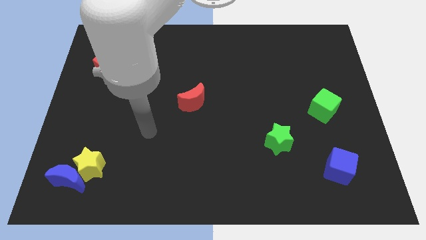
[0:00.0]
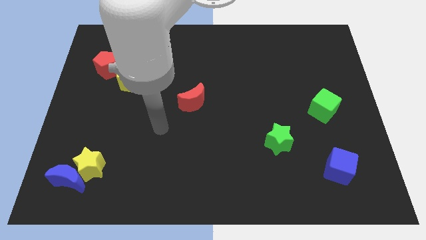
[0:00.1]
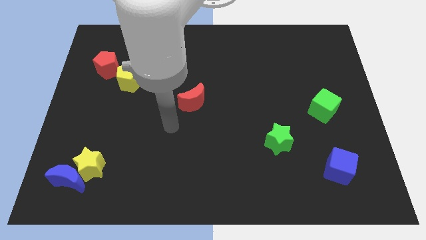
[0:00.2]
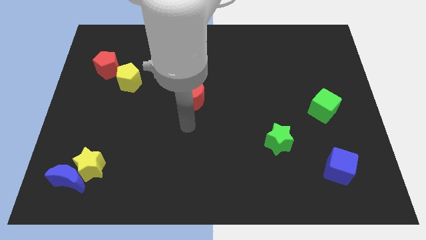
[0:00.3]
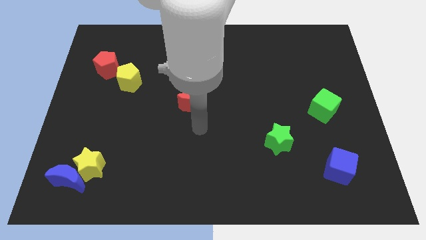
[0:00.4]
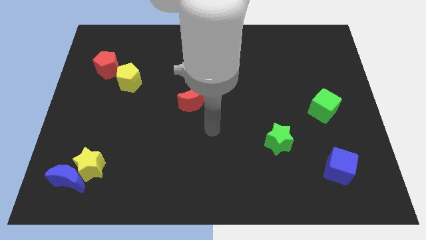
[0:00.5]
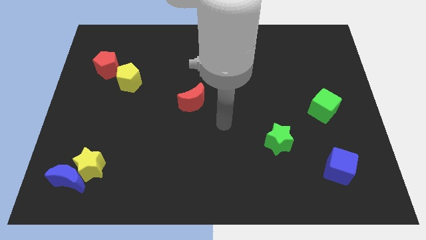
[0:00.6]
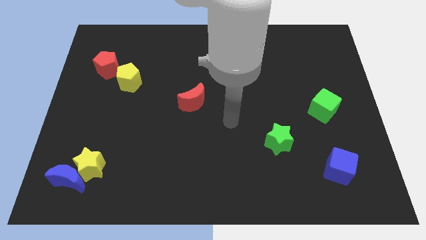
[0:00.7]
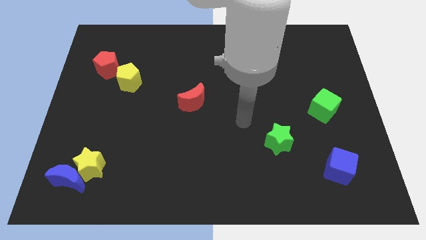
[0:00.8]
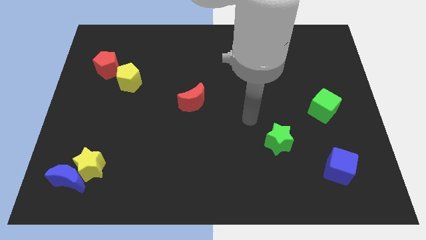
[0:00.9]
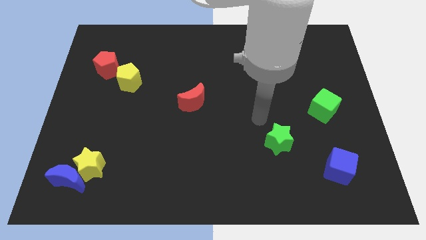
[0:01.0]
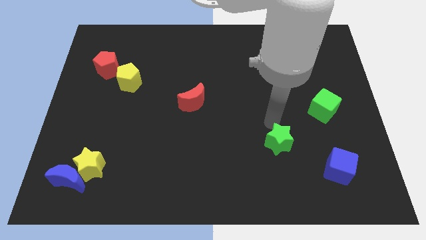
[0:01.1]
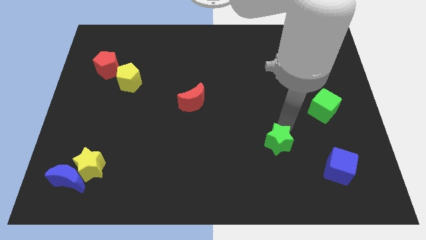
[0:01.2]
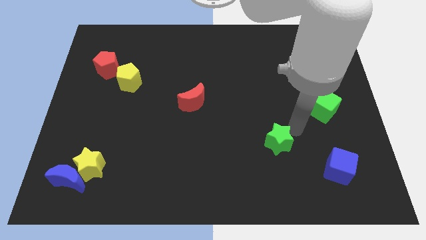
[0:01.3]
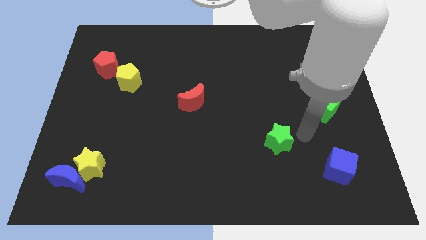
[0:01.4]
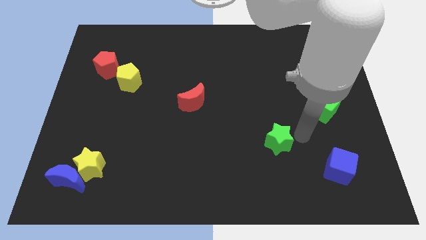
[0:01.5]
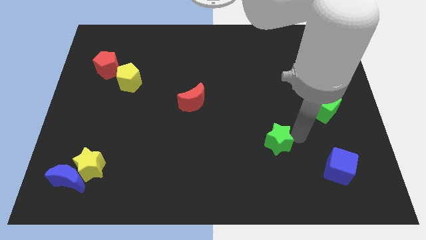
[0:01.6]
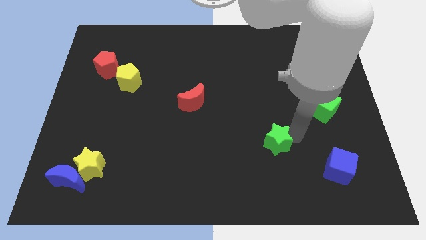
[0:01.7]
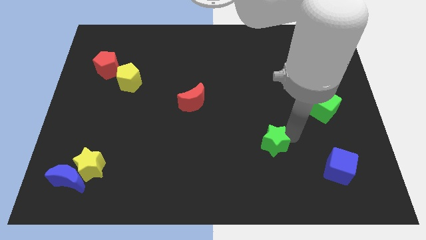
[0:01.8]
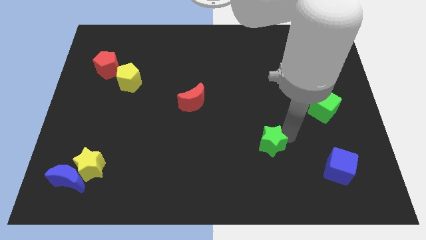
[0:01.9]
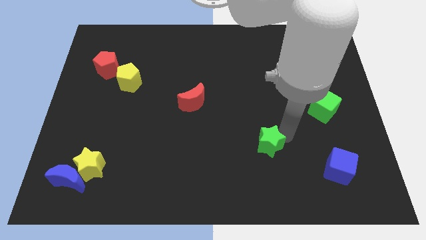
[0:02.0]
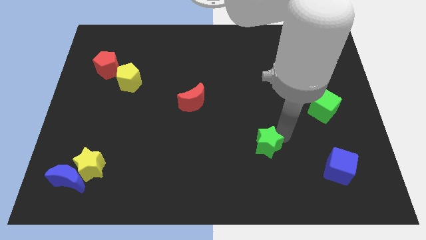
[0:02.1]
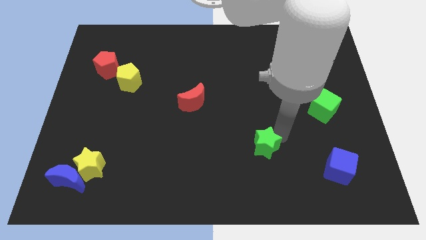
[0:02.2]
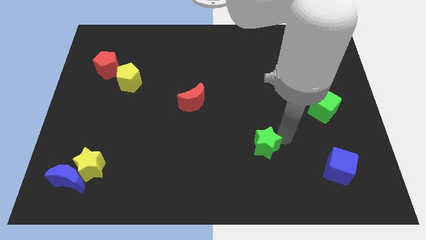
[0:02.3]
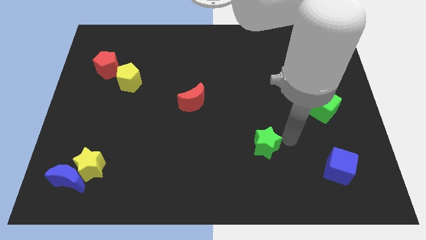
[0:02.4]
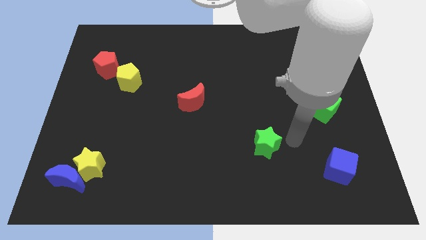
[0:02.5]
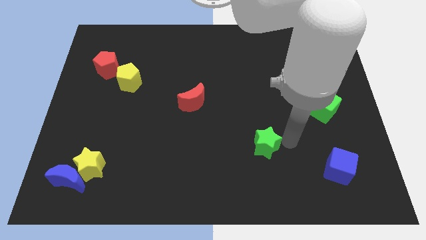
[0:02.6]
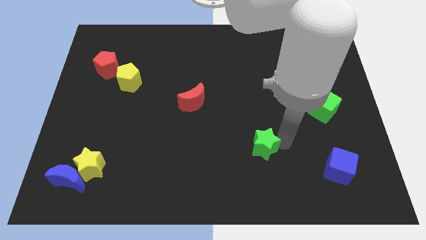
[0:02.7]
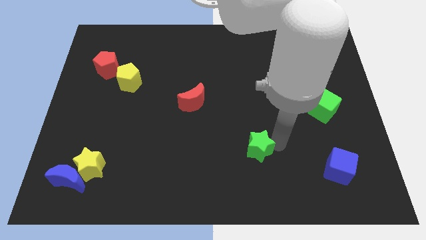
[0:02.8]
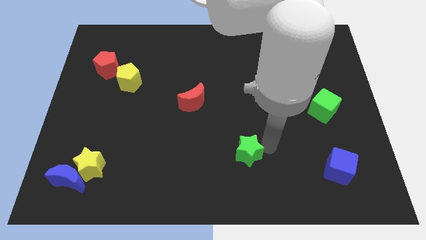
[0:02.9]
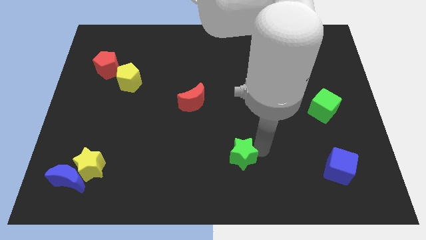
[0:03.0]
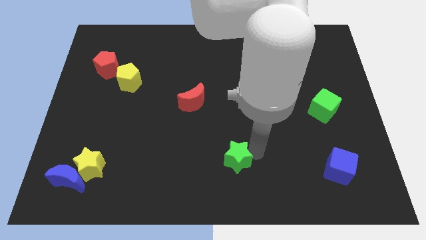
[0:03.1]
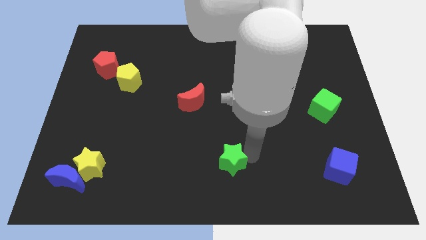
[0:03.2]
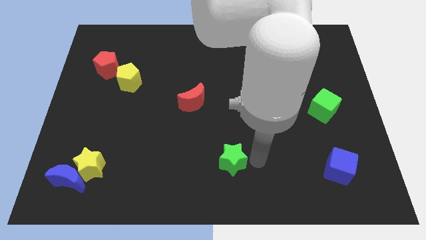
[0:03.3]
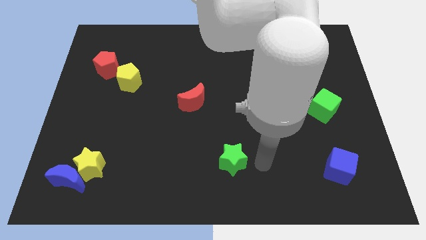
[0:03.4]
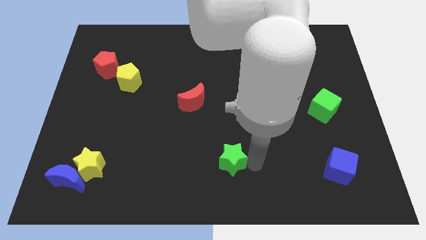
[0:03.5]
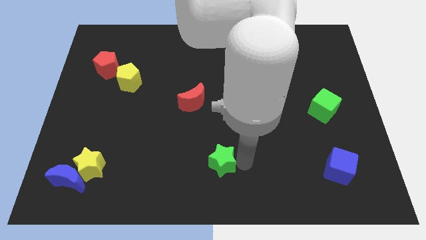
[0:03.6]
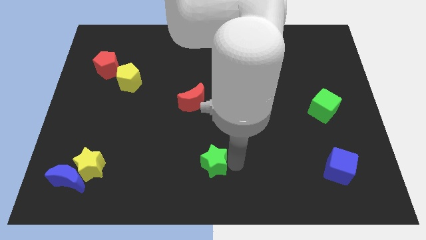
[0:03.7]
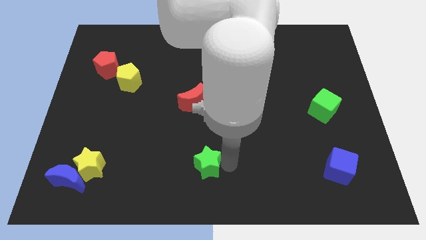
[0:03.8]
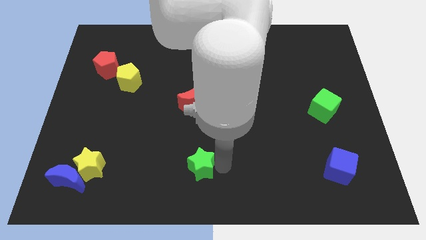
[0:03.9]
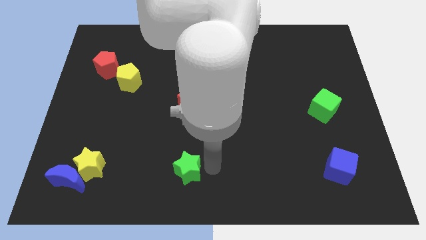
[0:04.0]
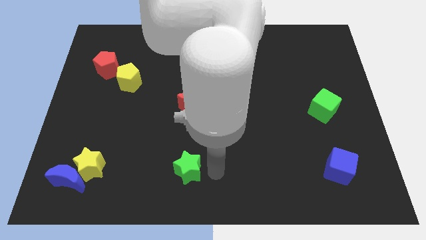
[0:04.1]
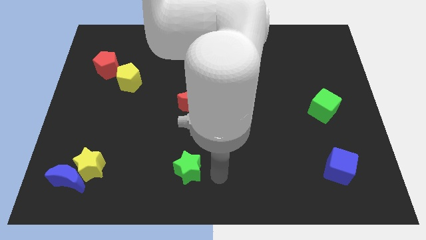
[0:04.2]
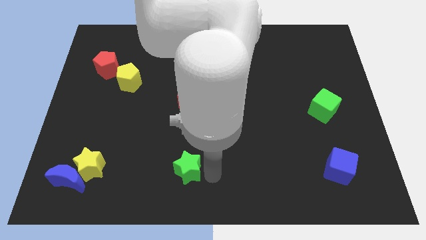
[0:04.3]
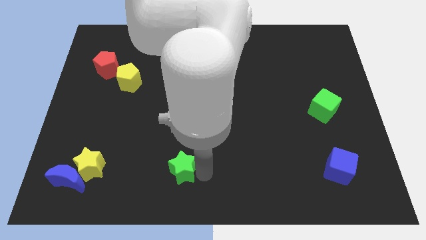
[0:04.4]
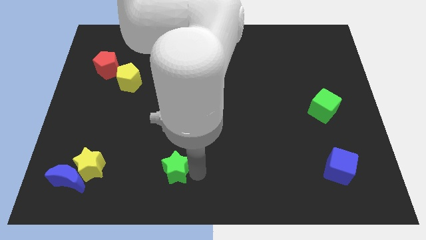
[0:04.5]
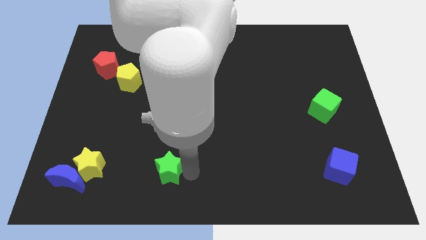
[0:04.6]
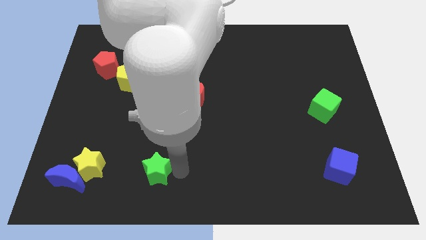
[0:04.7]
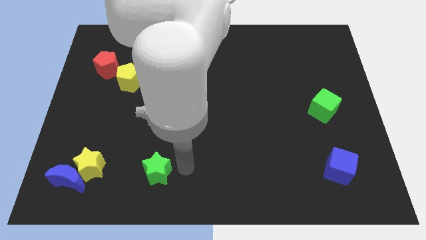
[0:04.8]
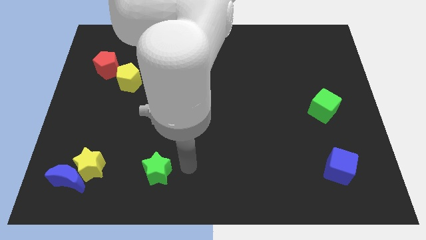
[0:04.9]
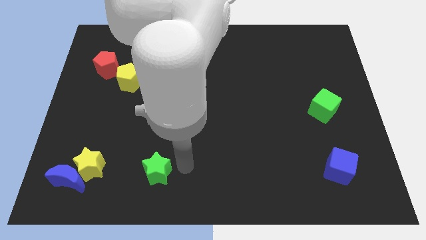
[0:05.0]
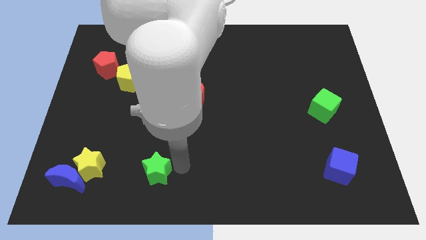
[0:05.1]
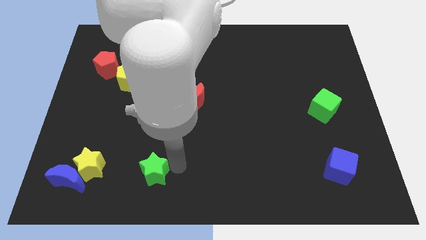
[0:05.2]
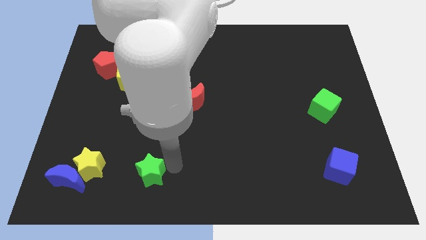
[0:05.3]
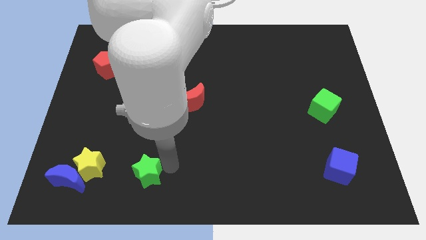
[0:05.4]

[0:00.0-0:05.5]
put the green star to the right of the blue moon

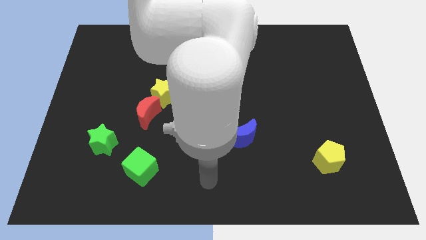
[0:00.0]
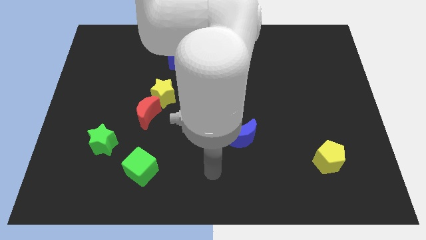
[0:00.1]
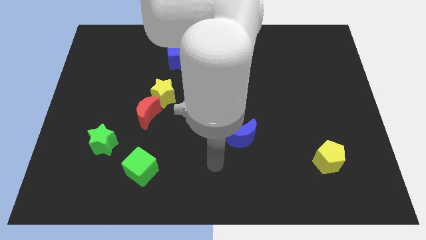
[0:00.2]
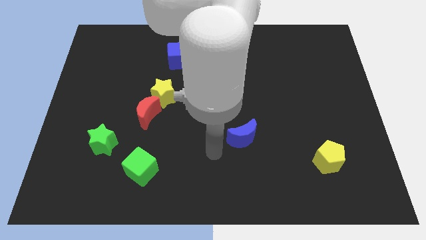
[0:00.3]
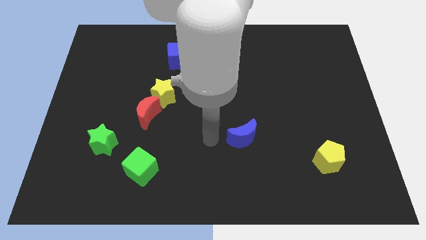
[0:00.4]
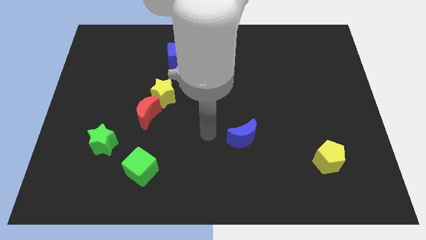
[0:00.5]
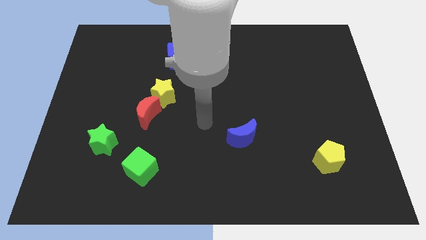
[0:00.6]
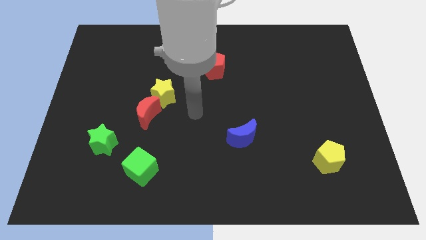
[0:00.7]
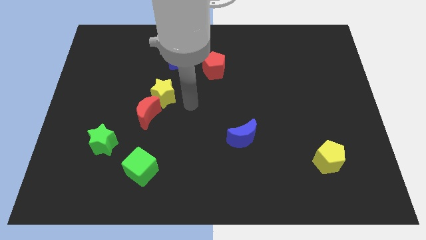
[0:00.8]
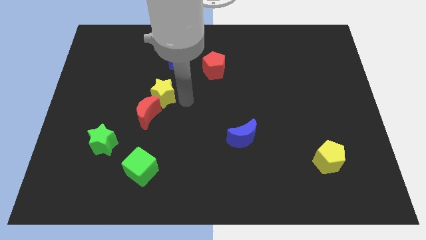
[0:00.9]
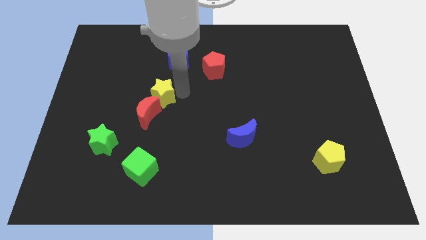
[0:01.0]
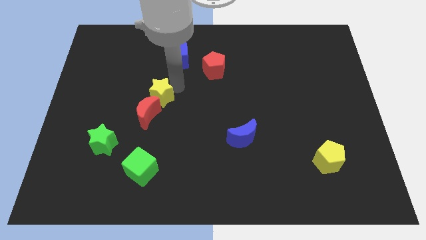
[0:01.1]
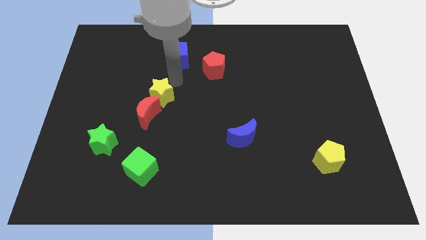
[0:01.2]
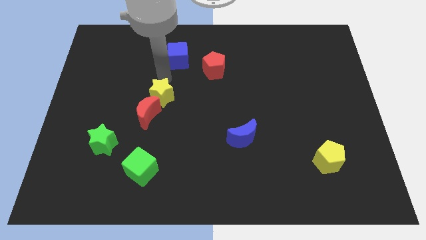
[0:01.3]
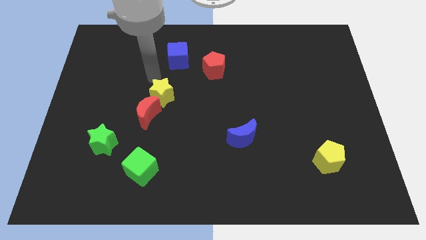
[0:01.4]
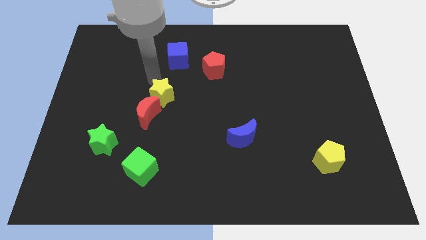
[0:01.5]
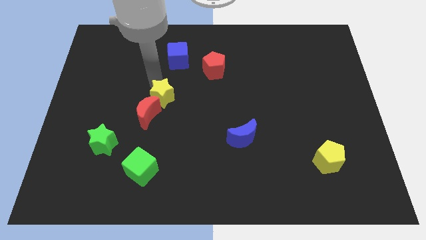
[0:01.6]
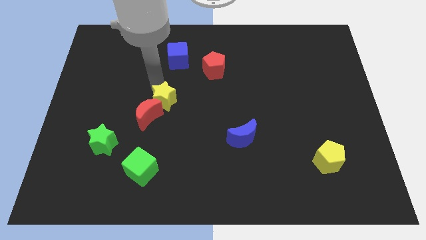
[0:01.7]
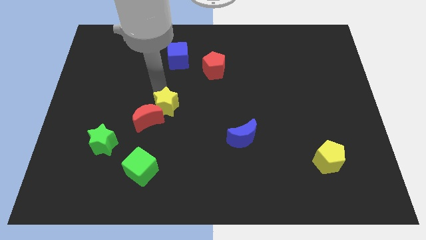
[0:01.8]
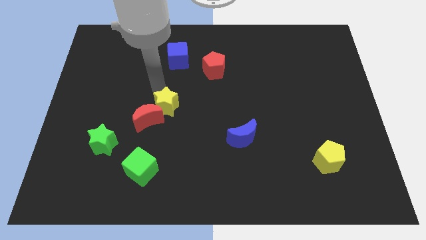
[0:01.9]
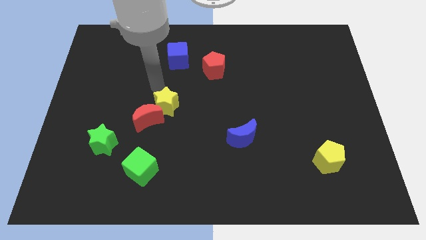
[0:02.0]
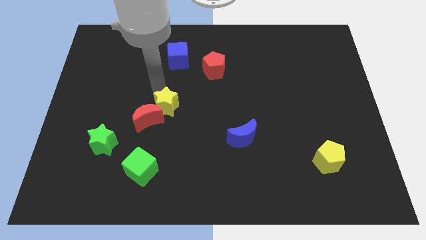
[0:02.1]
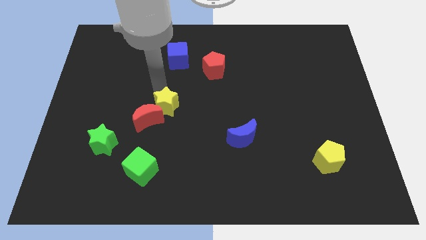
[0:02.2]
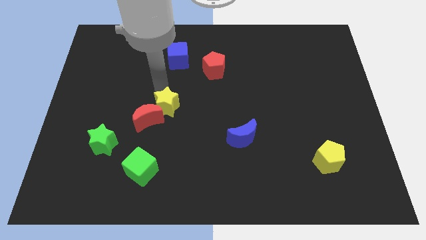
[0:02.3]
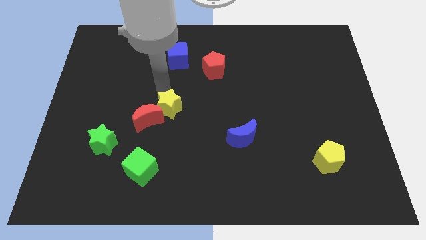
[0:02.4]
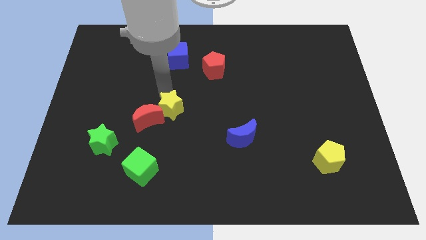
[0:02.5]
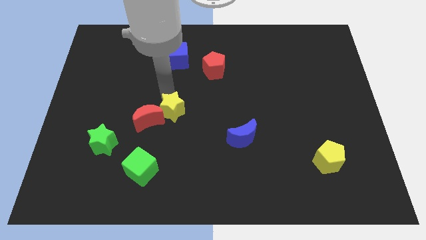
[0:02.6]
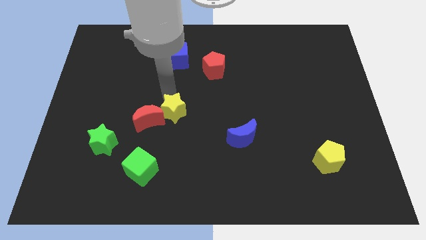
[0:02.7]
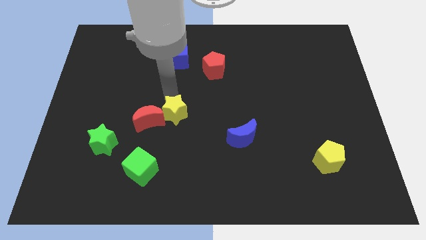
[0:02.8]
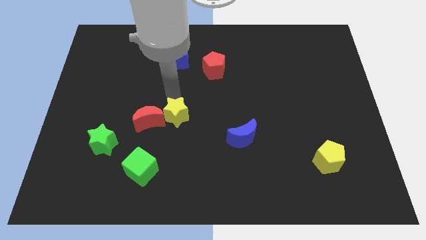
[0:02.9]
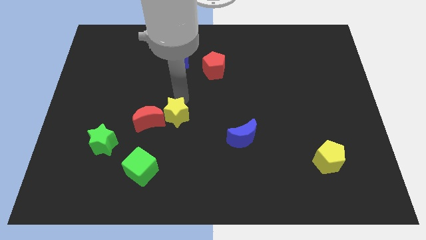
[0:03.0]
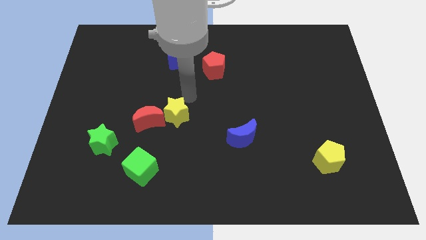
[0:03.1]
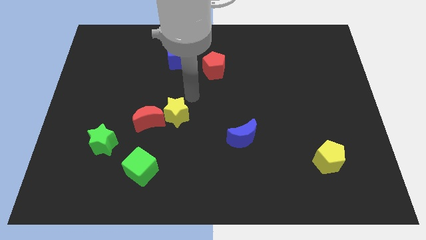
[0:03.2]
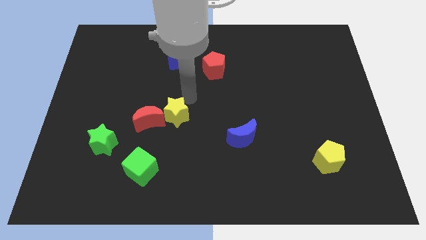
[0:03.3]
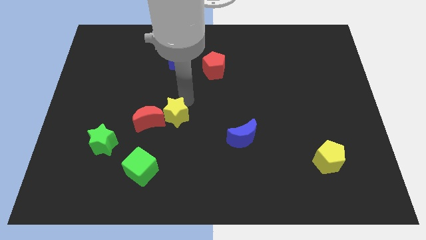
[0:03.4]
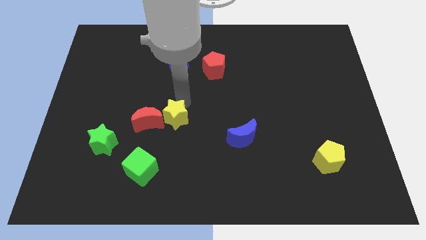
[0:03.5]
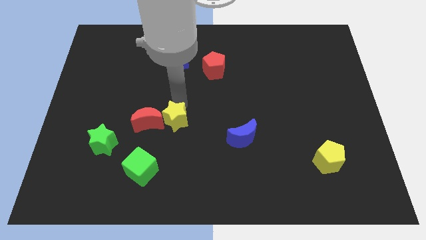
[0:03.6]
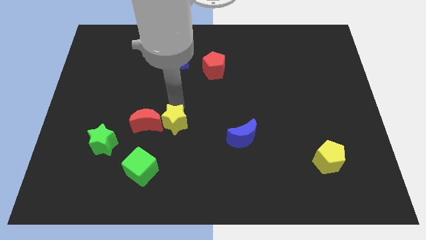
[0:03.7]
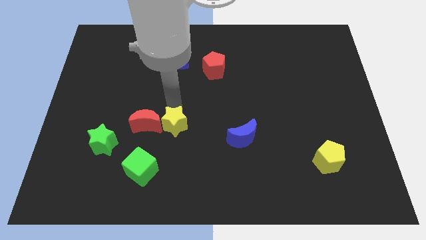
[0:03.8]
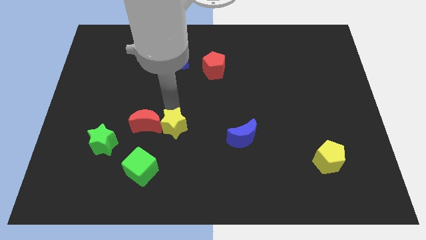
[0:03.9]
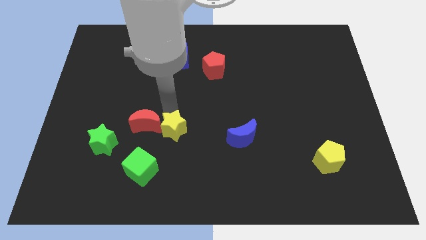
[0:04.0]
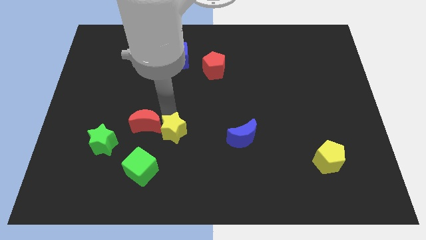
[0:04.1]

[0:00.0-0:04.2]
move the yellow star right of the green star
